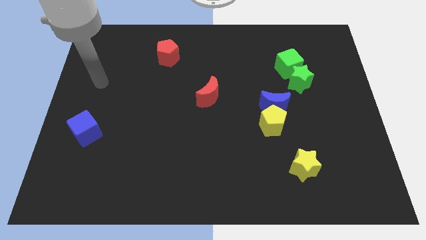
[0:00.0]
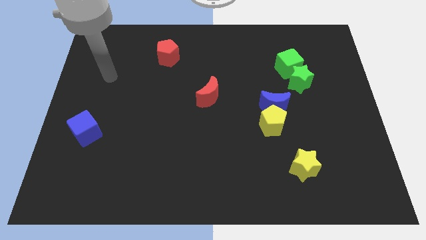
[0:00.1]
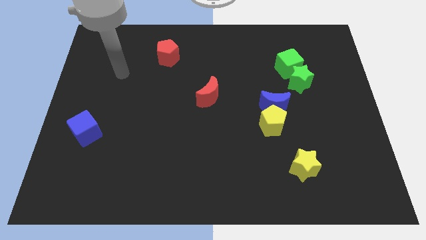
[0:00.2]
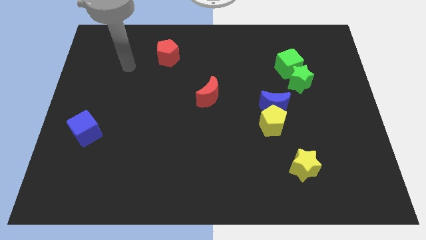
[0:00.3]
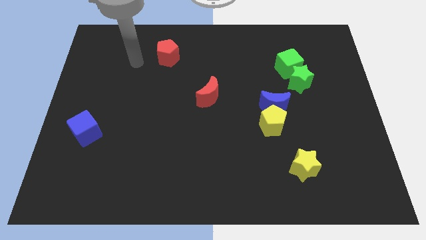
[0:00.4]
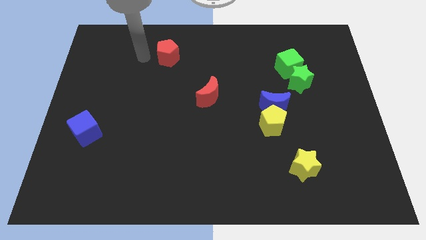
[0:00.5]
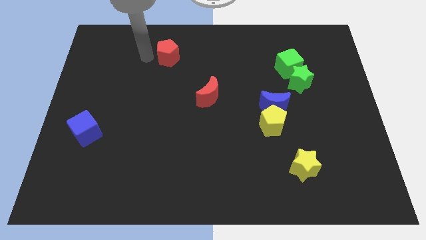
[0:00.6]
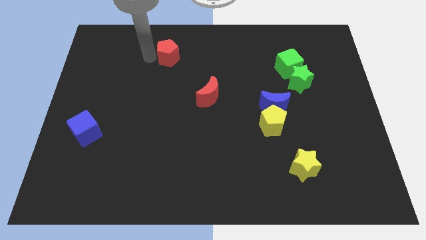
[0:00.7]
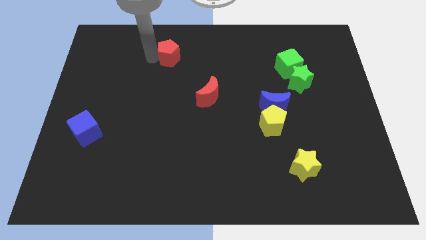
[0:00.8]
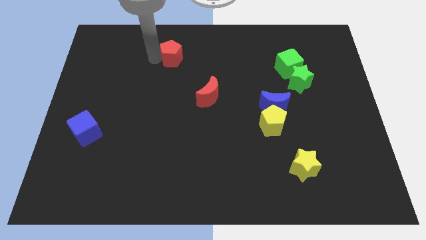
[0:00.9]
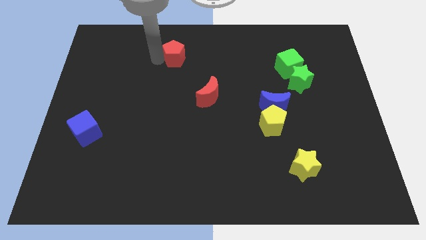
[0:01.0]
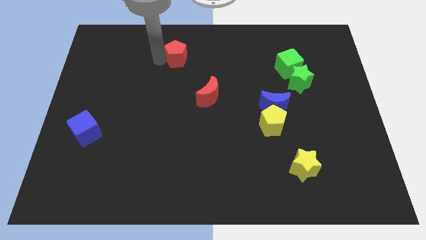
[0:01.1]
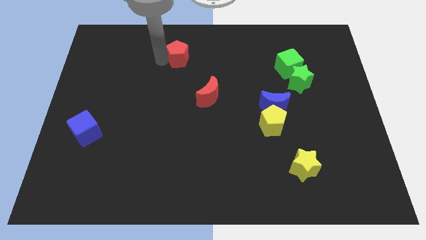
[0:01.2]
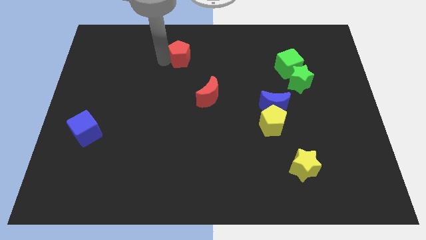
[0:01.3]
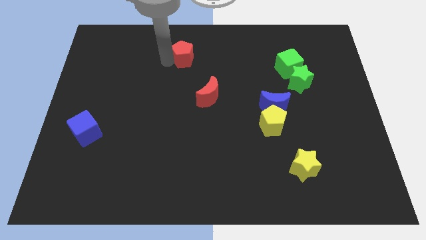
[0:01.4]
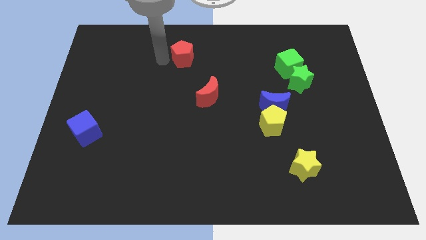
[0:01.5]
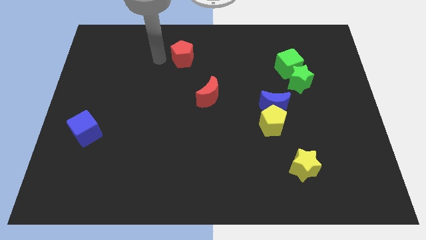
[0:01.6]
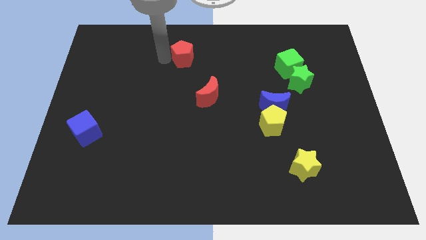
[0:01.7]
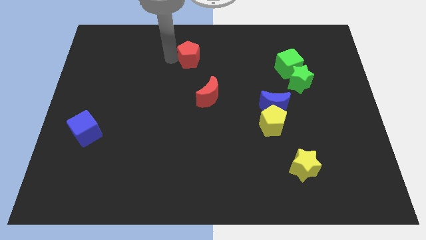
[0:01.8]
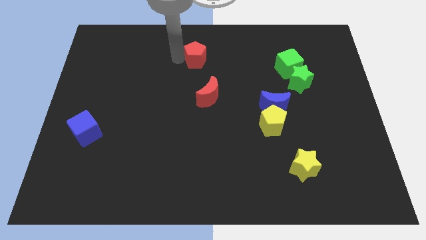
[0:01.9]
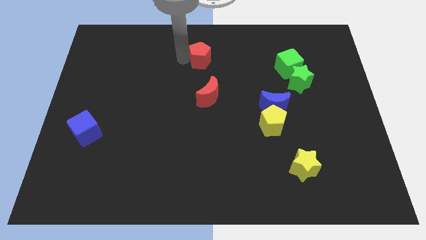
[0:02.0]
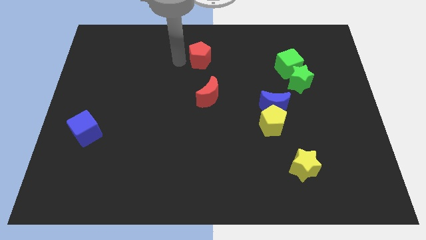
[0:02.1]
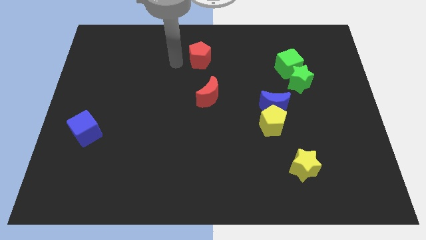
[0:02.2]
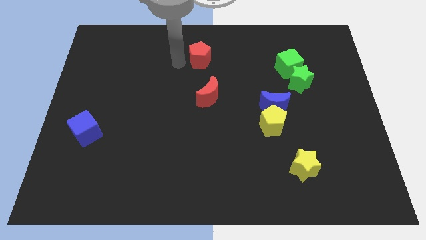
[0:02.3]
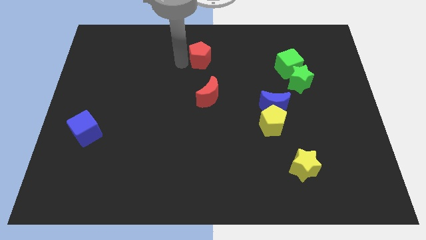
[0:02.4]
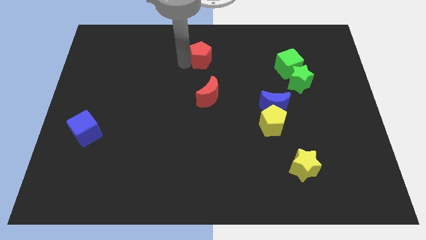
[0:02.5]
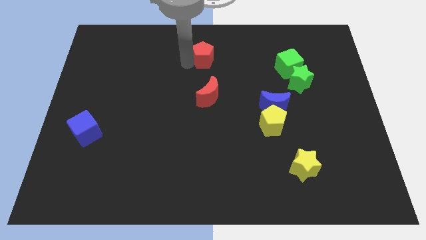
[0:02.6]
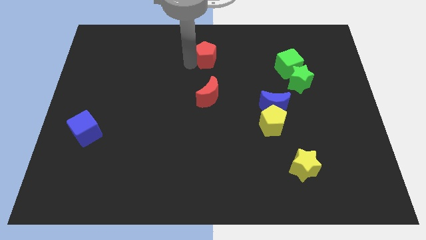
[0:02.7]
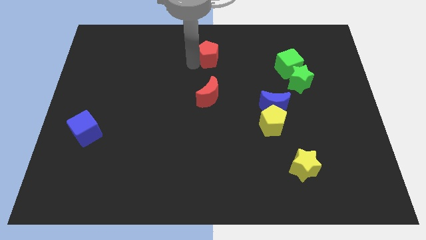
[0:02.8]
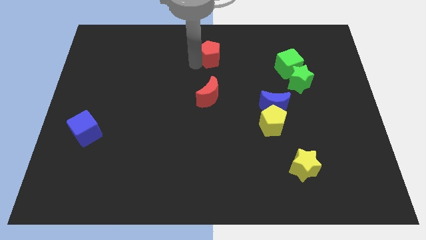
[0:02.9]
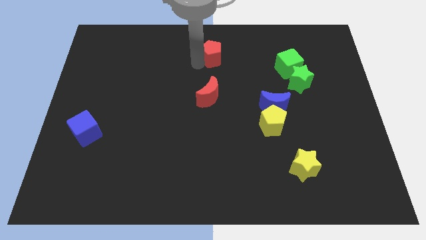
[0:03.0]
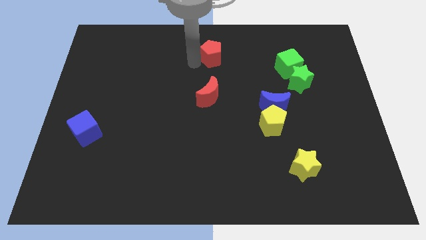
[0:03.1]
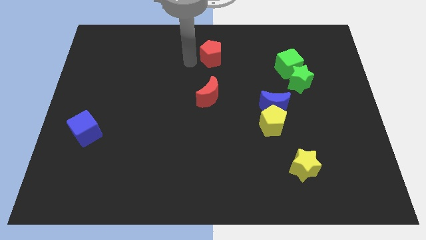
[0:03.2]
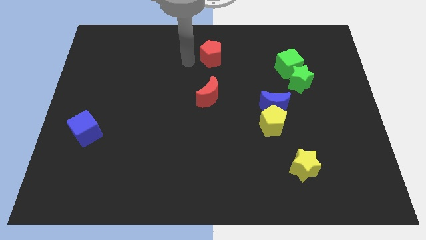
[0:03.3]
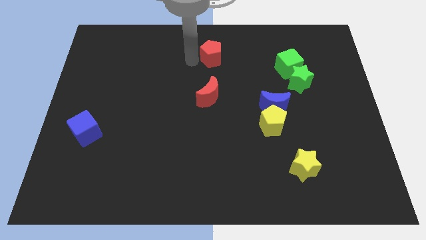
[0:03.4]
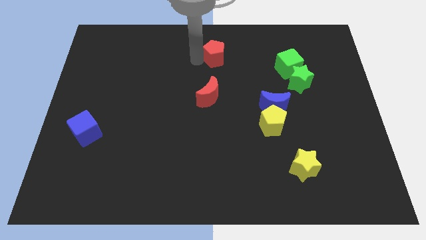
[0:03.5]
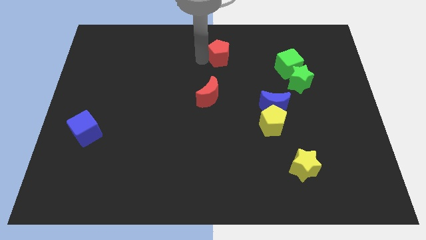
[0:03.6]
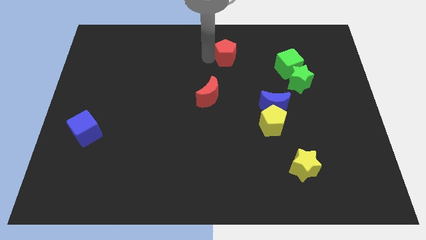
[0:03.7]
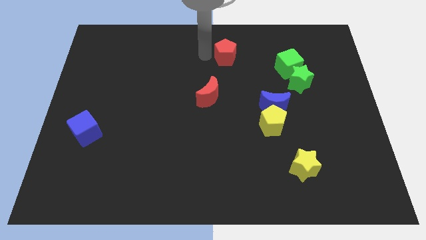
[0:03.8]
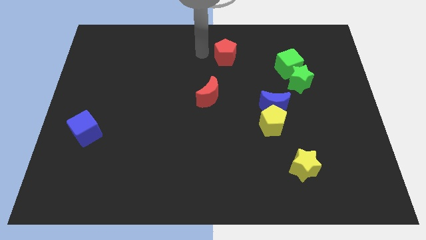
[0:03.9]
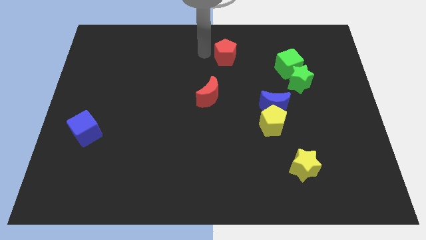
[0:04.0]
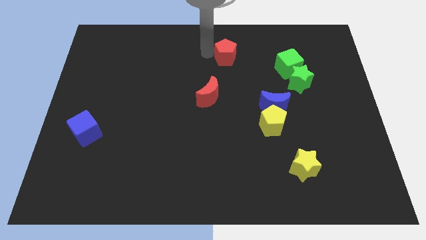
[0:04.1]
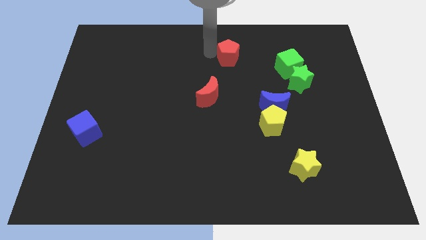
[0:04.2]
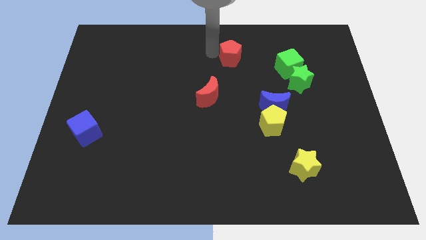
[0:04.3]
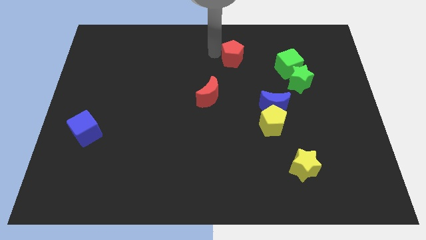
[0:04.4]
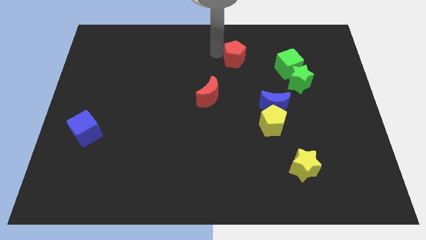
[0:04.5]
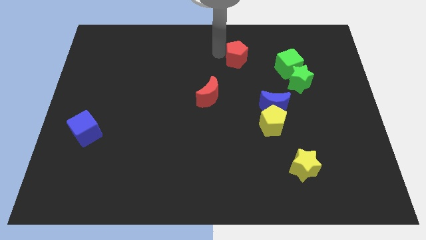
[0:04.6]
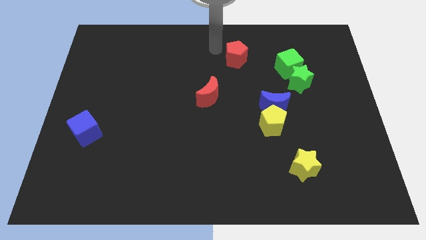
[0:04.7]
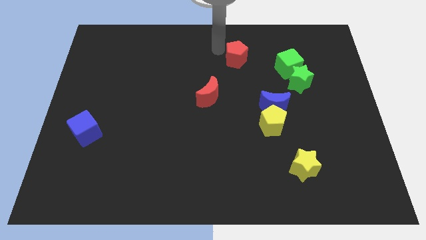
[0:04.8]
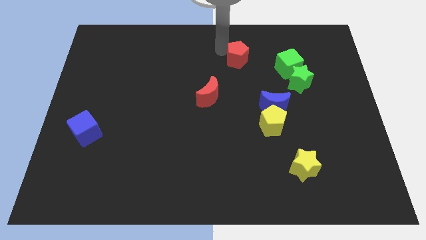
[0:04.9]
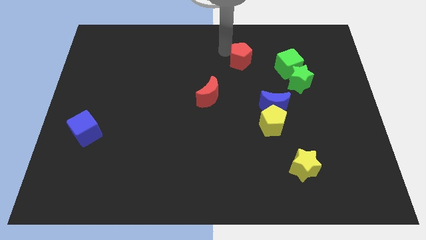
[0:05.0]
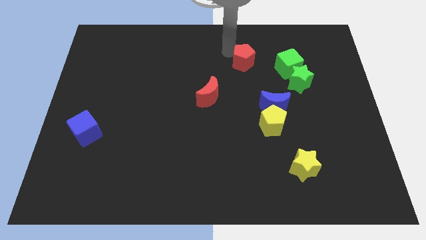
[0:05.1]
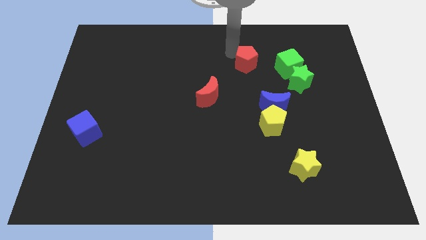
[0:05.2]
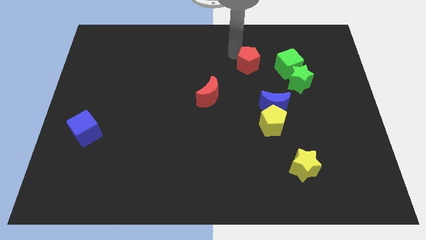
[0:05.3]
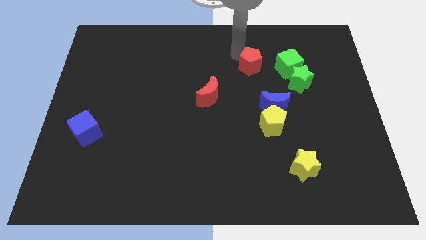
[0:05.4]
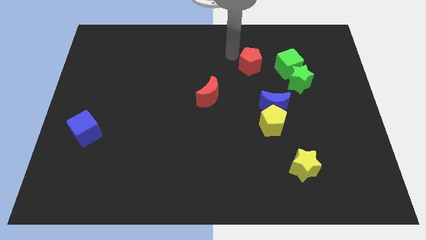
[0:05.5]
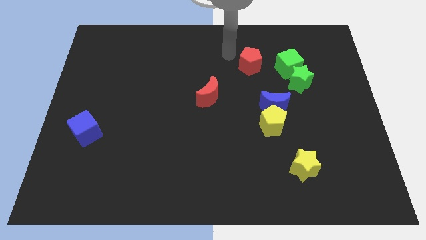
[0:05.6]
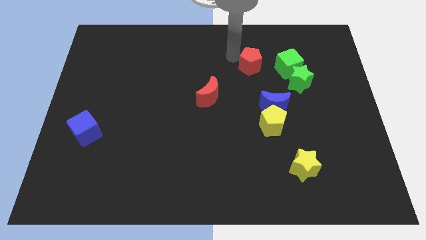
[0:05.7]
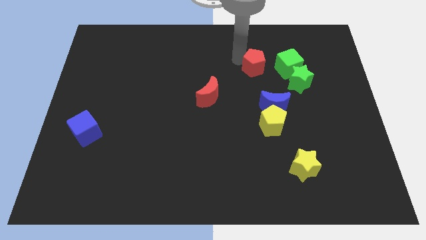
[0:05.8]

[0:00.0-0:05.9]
put the red pentagon above the blue moon

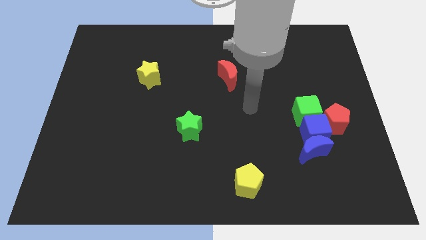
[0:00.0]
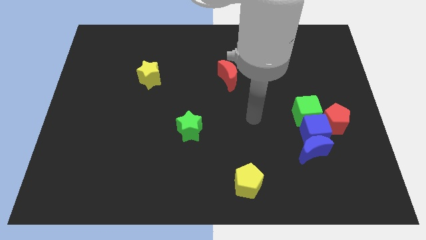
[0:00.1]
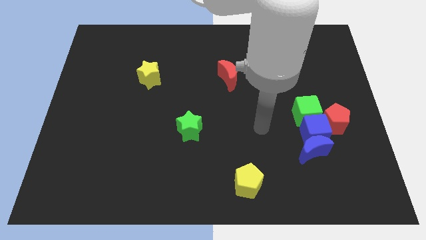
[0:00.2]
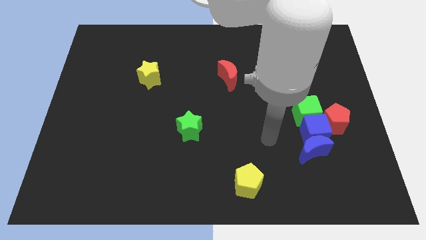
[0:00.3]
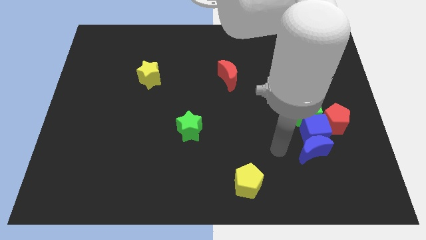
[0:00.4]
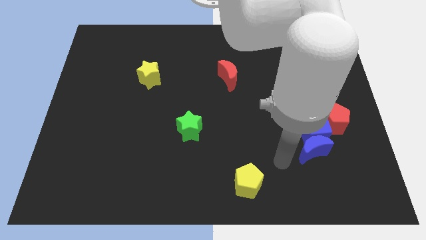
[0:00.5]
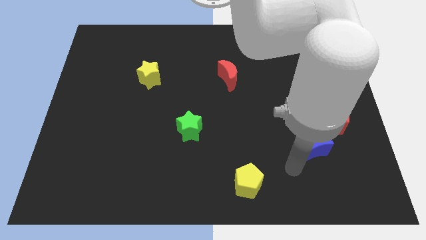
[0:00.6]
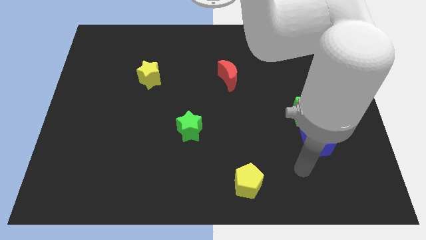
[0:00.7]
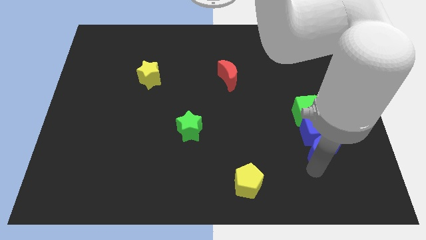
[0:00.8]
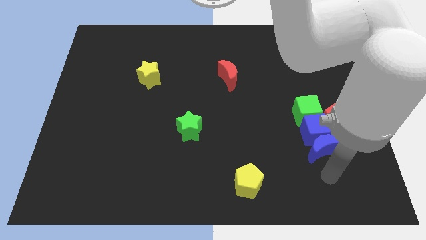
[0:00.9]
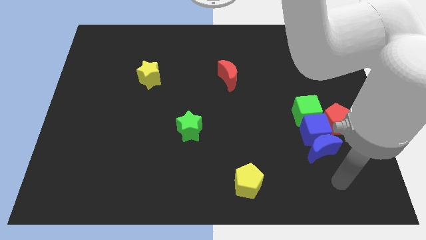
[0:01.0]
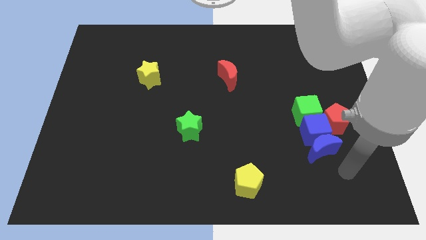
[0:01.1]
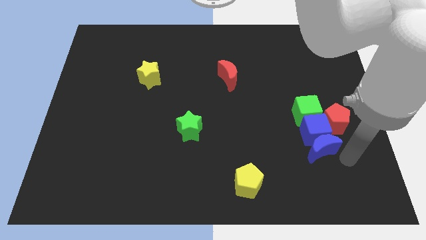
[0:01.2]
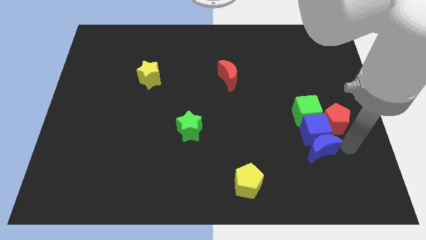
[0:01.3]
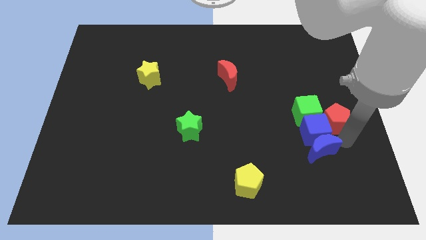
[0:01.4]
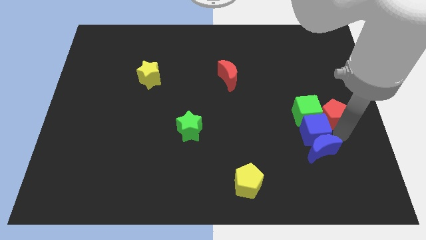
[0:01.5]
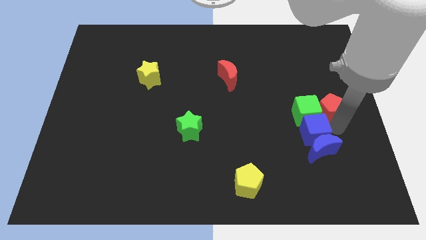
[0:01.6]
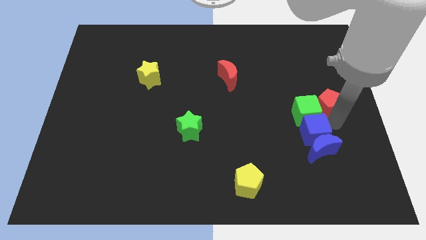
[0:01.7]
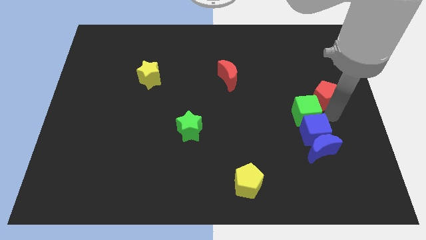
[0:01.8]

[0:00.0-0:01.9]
put the red pentagon to the top side of the green cube

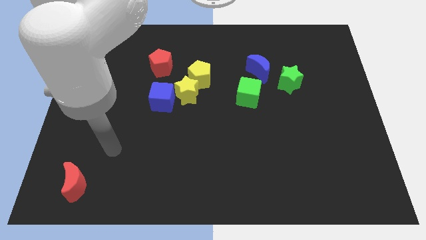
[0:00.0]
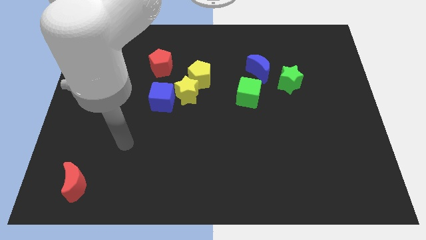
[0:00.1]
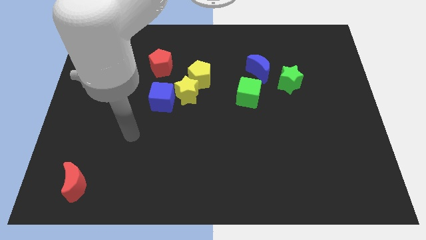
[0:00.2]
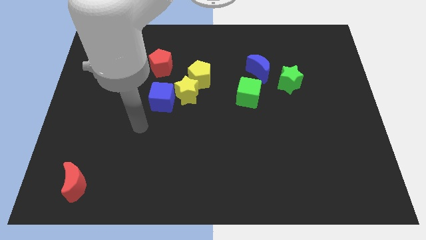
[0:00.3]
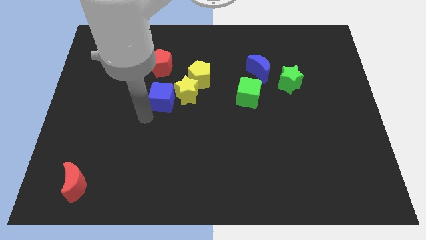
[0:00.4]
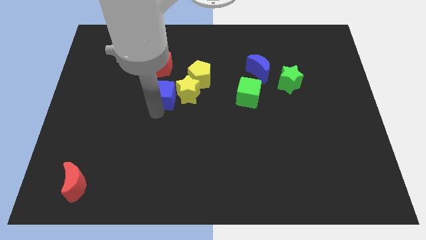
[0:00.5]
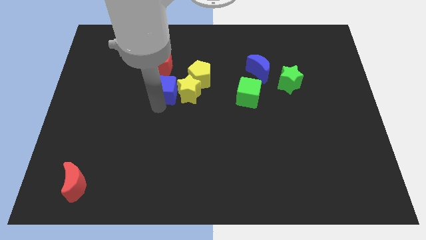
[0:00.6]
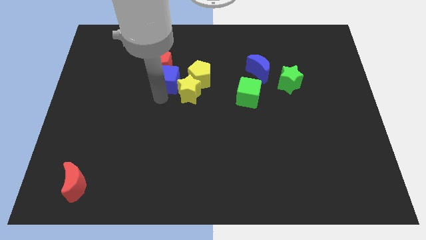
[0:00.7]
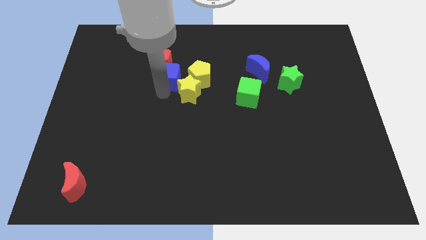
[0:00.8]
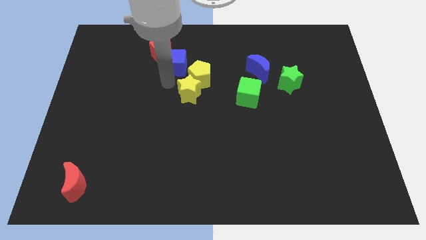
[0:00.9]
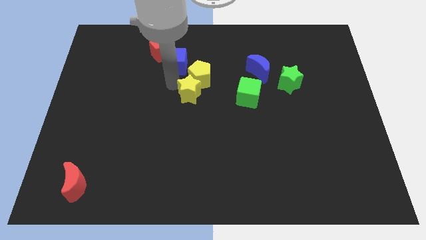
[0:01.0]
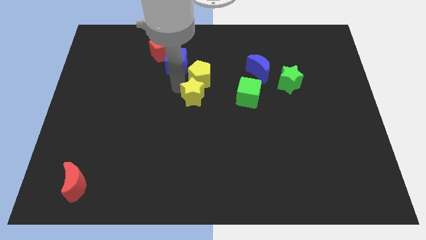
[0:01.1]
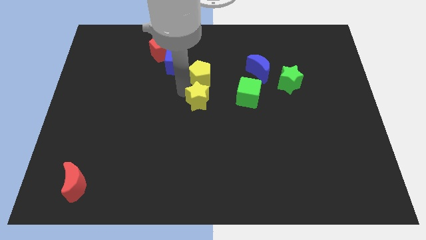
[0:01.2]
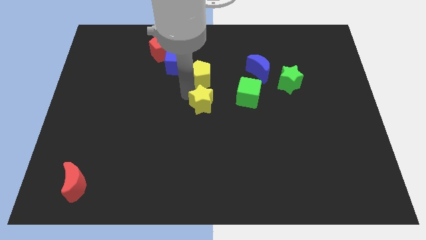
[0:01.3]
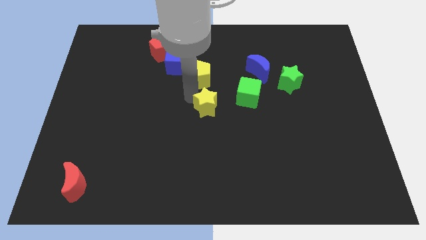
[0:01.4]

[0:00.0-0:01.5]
push the yellow star to the bottom left of the green cube
